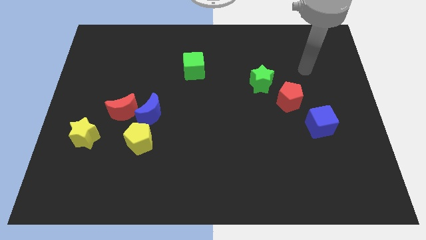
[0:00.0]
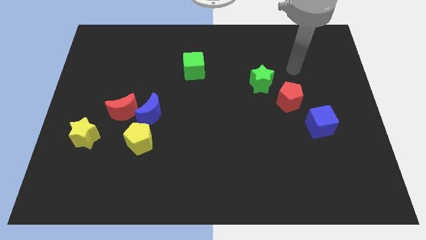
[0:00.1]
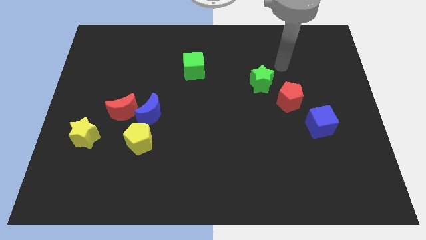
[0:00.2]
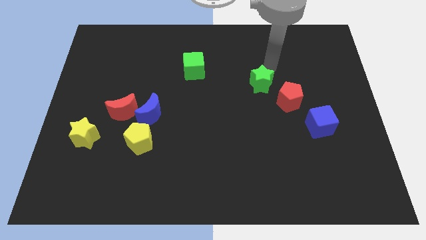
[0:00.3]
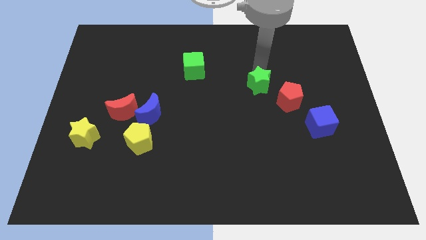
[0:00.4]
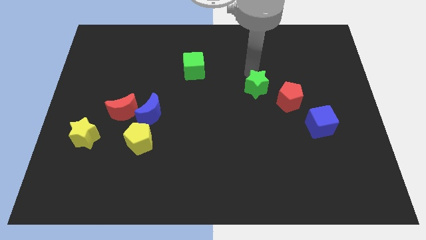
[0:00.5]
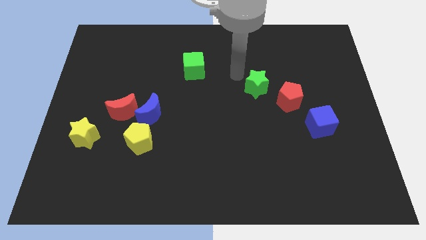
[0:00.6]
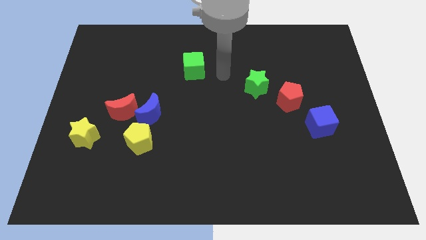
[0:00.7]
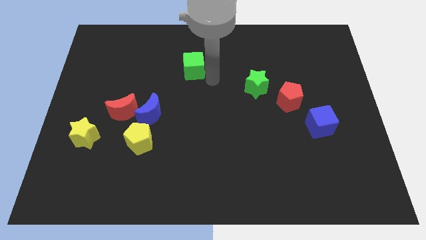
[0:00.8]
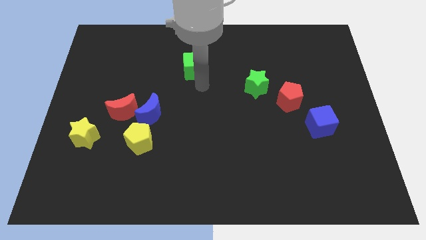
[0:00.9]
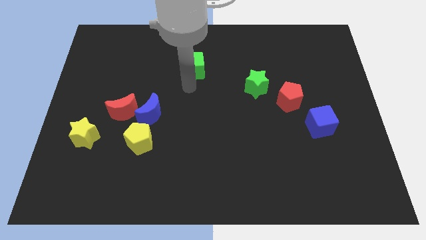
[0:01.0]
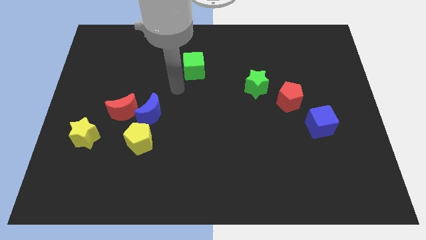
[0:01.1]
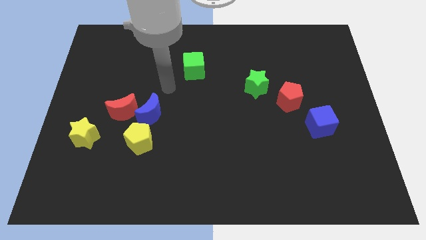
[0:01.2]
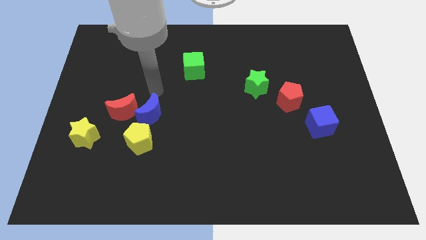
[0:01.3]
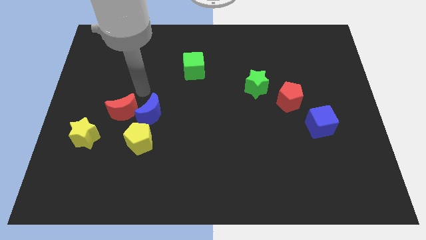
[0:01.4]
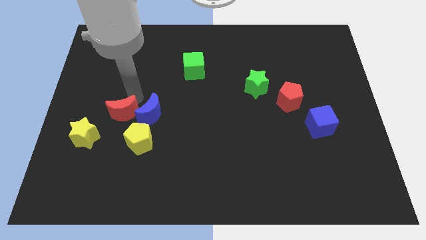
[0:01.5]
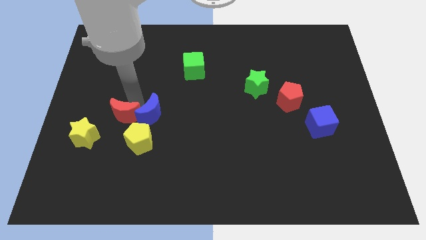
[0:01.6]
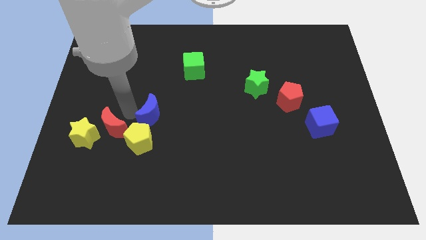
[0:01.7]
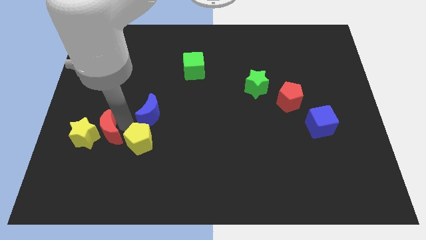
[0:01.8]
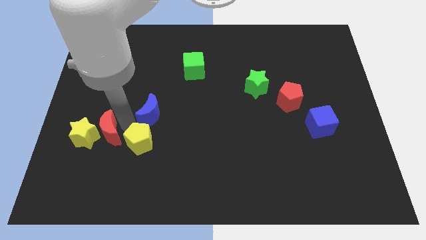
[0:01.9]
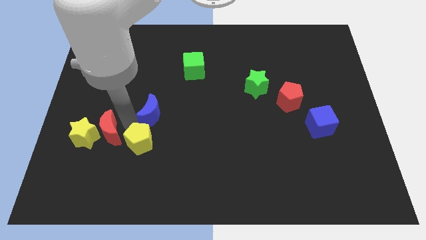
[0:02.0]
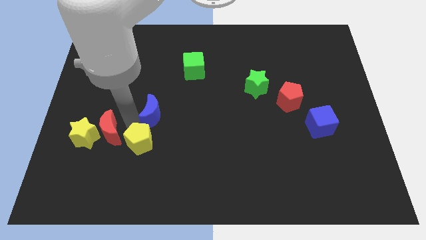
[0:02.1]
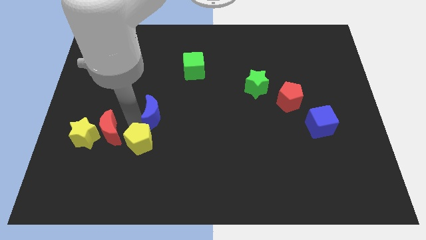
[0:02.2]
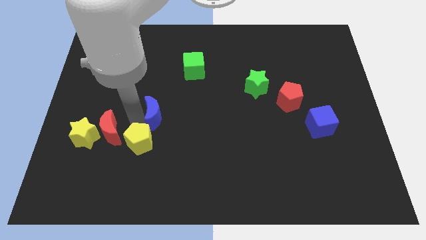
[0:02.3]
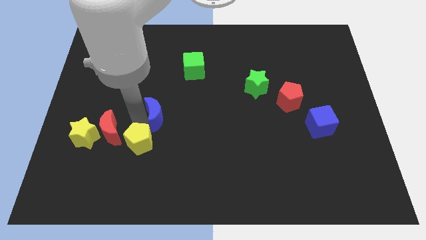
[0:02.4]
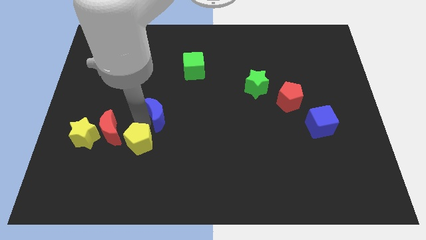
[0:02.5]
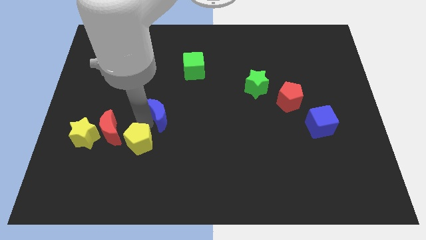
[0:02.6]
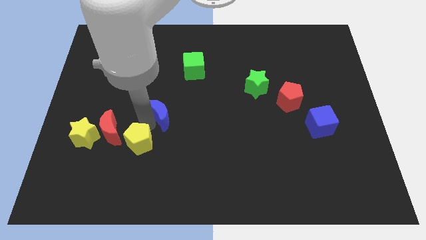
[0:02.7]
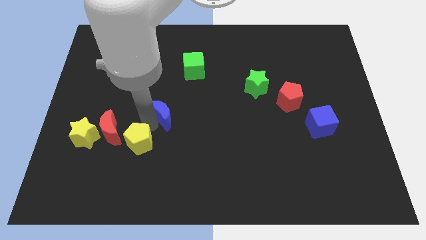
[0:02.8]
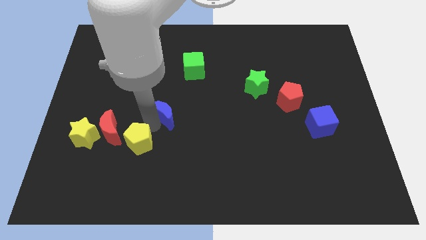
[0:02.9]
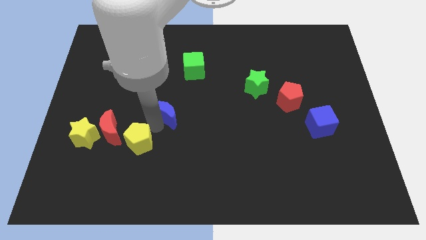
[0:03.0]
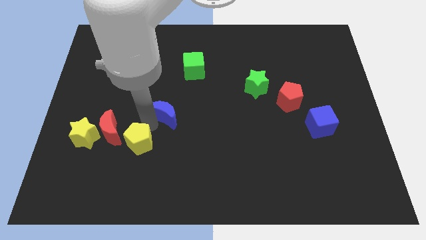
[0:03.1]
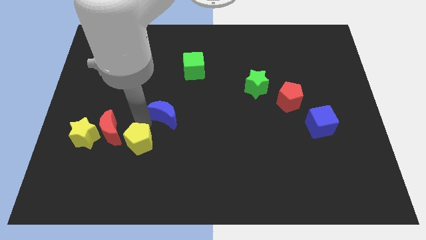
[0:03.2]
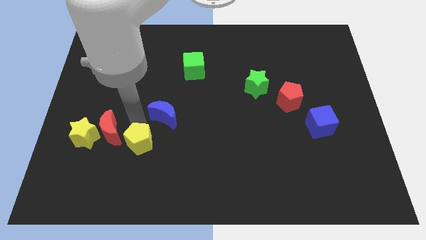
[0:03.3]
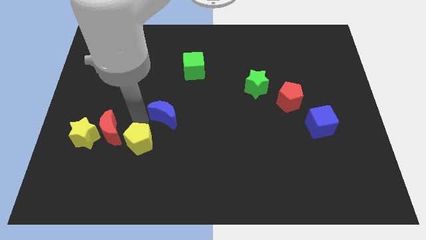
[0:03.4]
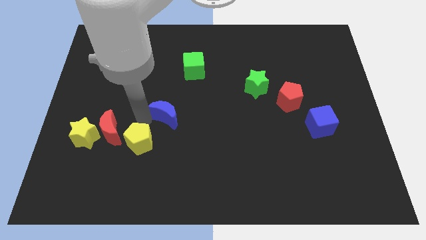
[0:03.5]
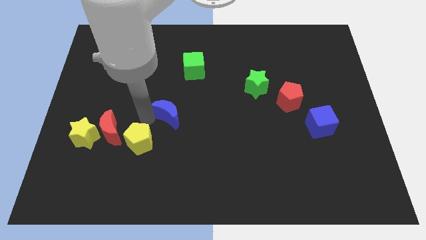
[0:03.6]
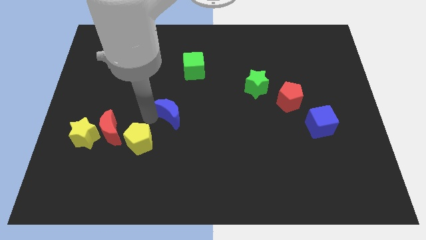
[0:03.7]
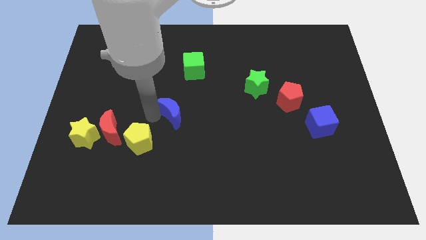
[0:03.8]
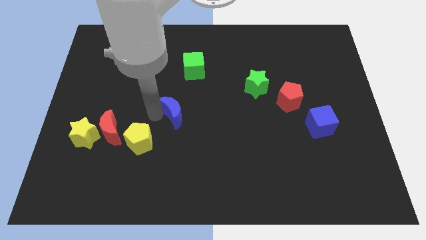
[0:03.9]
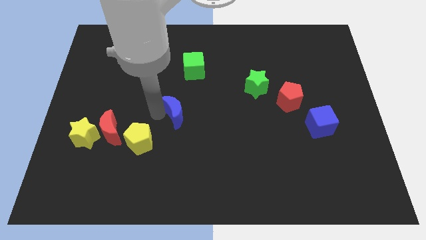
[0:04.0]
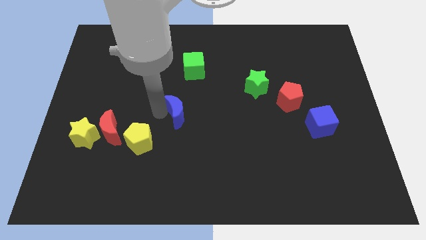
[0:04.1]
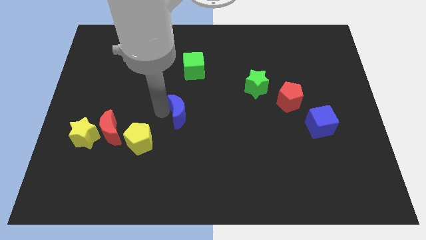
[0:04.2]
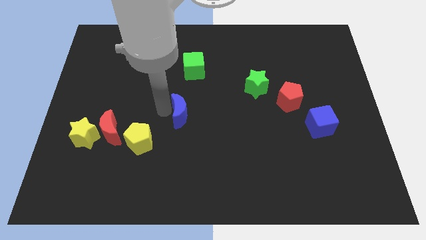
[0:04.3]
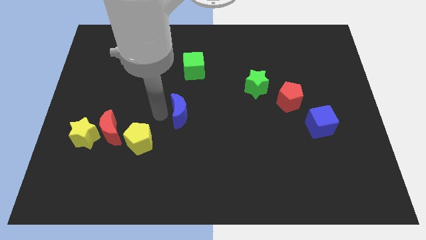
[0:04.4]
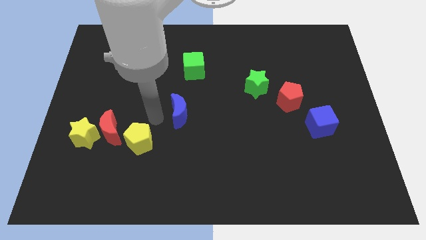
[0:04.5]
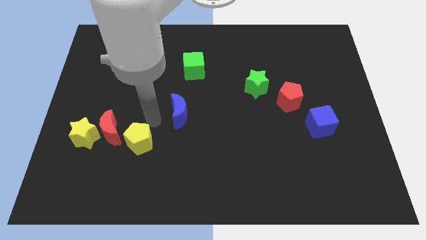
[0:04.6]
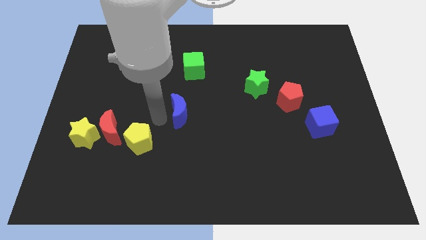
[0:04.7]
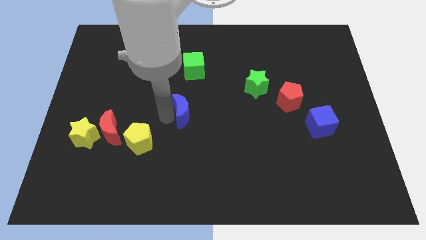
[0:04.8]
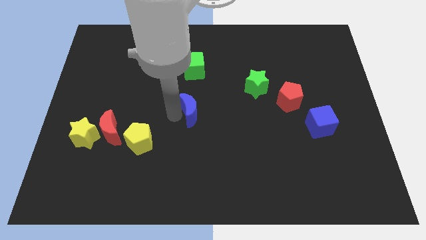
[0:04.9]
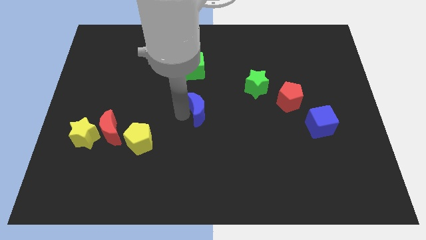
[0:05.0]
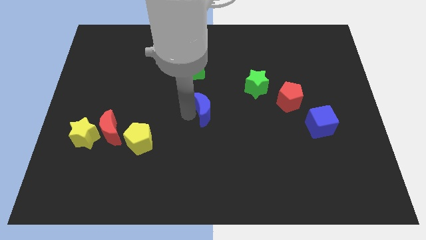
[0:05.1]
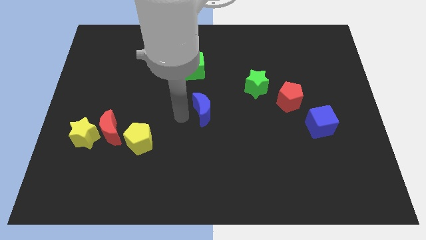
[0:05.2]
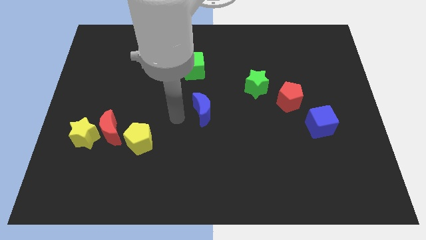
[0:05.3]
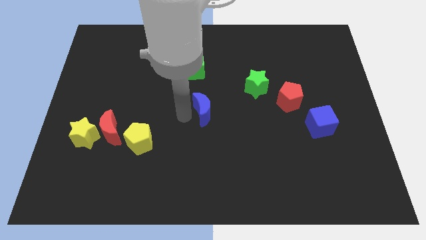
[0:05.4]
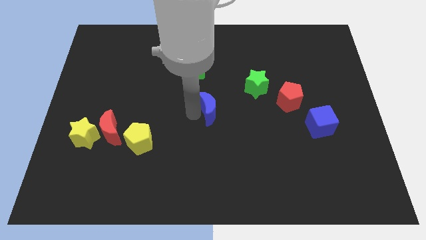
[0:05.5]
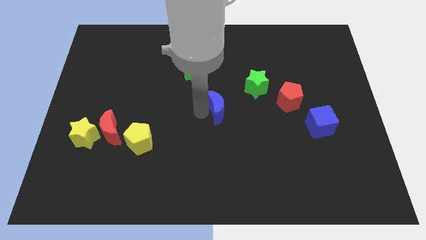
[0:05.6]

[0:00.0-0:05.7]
move the blue moon diagonally down and to the left of the green star

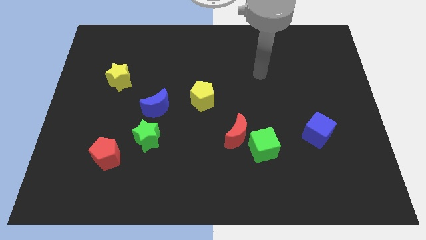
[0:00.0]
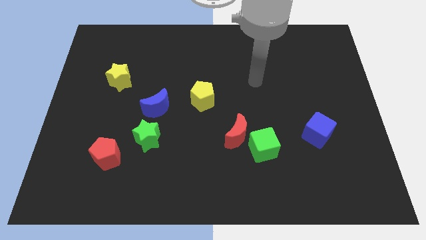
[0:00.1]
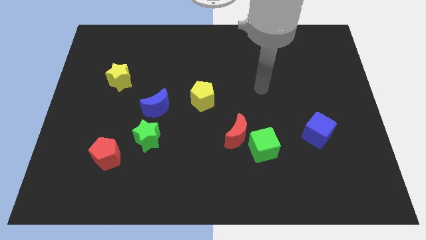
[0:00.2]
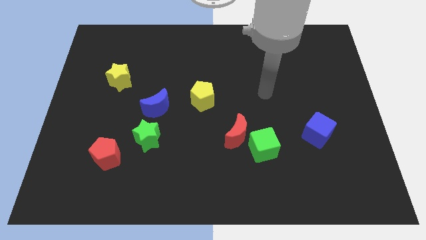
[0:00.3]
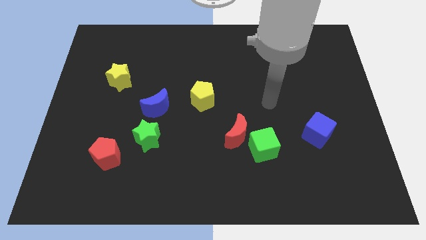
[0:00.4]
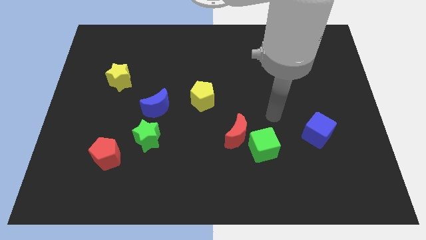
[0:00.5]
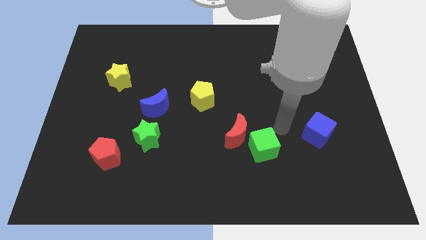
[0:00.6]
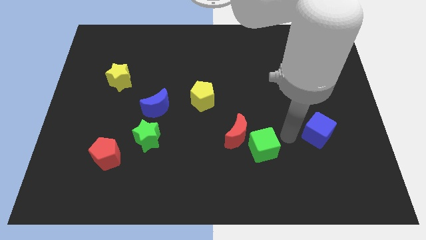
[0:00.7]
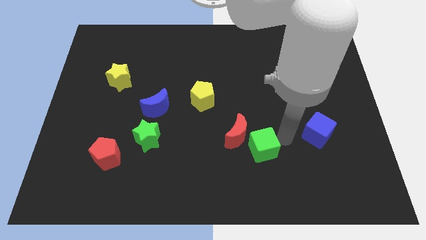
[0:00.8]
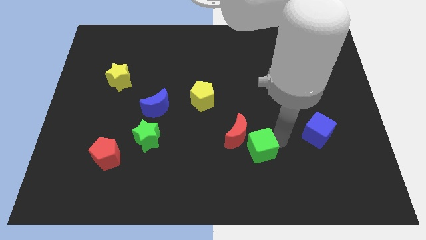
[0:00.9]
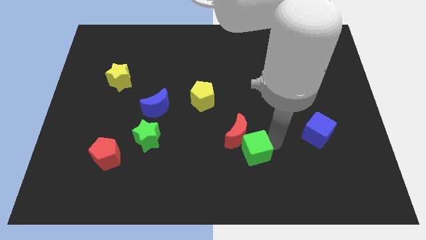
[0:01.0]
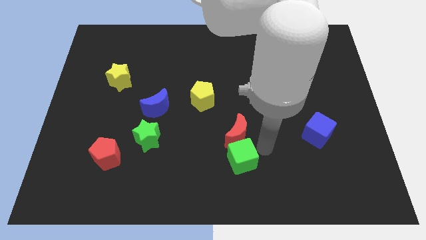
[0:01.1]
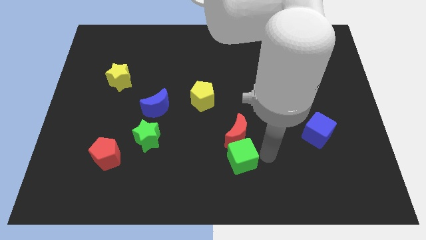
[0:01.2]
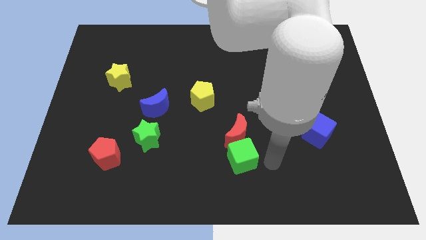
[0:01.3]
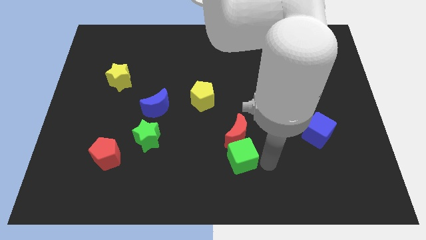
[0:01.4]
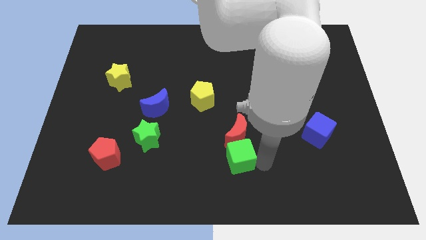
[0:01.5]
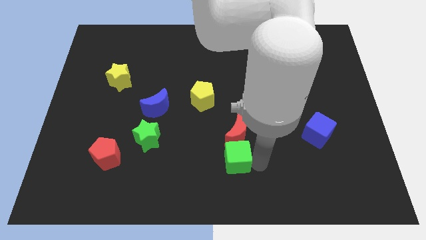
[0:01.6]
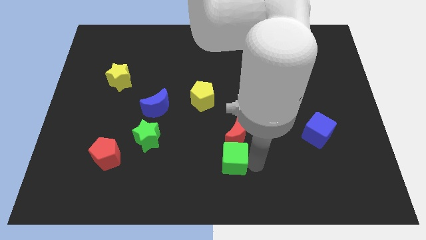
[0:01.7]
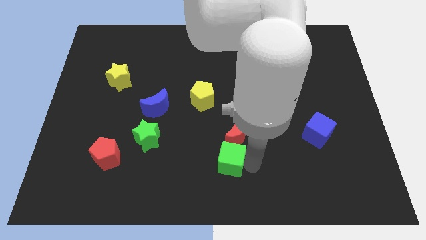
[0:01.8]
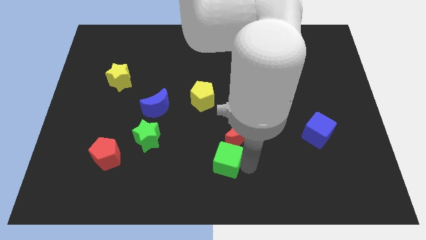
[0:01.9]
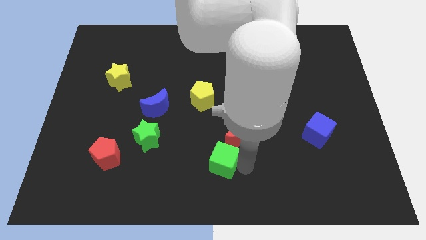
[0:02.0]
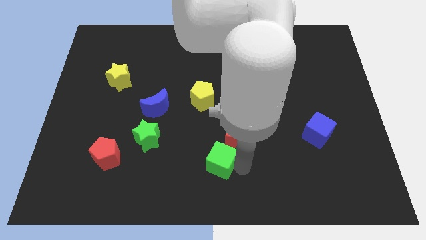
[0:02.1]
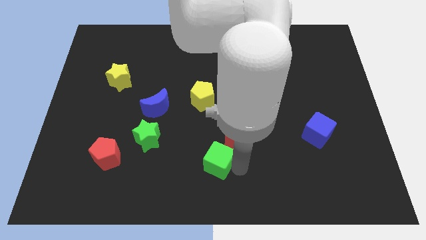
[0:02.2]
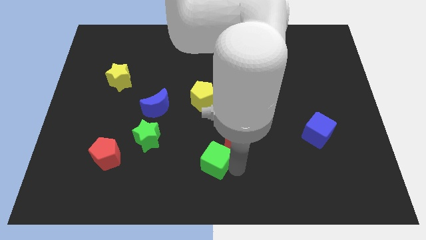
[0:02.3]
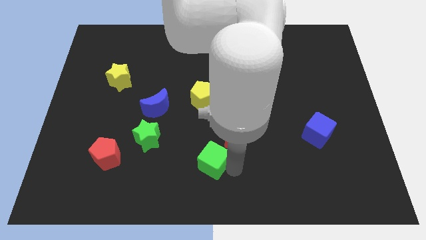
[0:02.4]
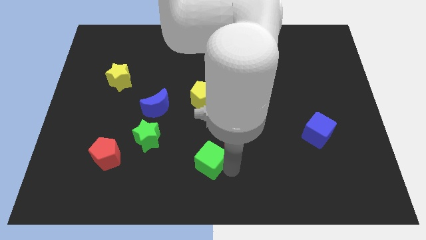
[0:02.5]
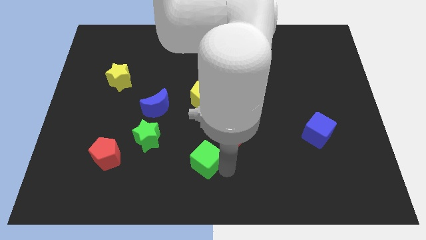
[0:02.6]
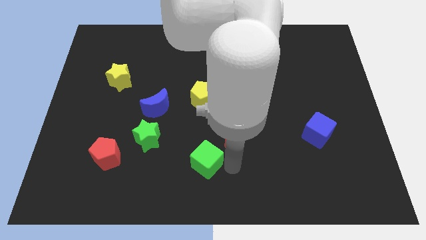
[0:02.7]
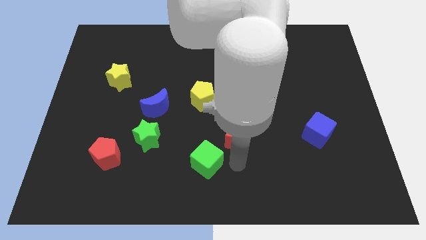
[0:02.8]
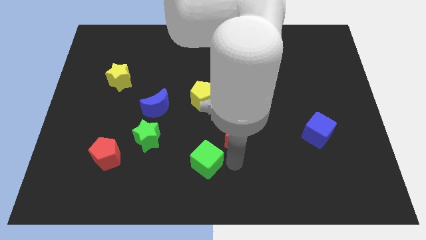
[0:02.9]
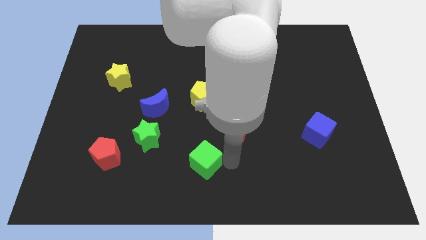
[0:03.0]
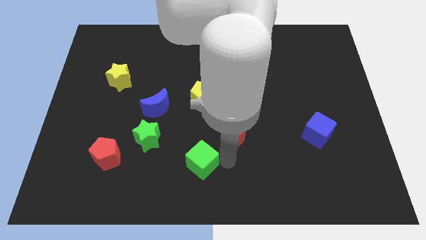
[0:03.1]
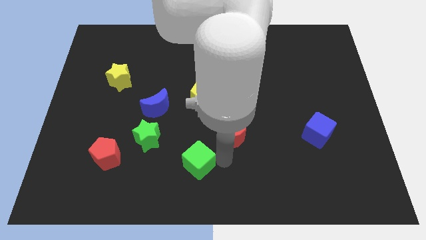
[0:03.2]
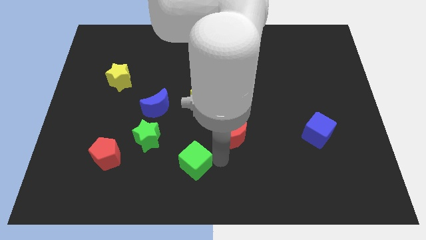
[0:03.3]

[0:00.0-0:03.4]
push the green cube diagonally down and to the right of the green star
